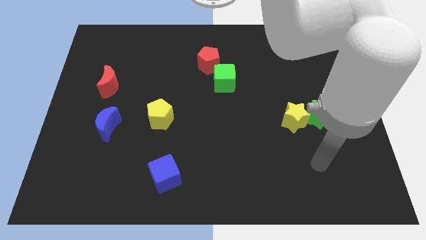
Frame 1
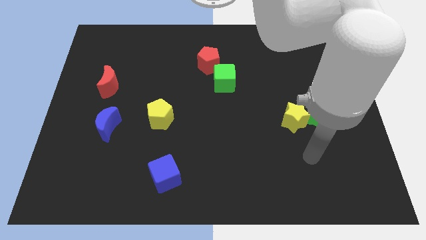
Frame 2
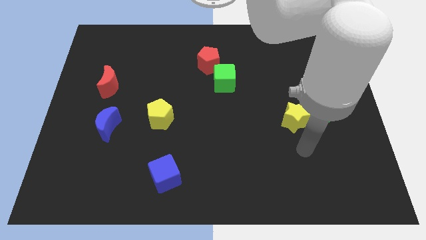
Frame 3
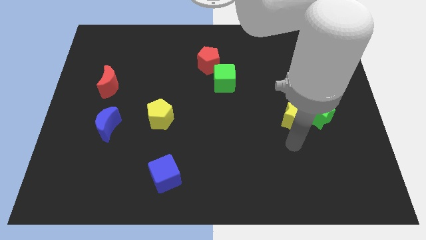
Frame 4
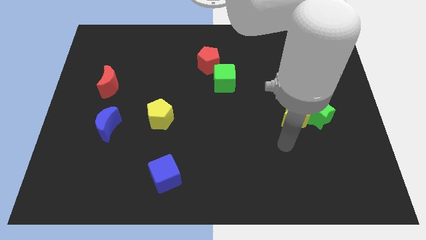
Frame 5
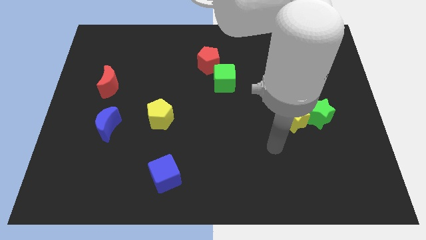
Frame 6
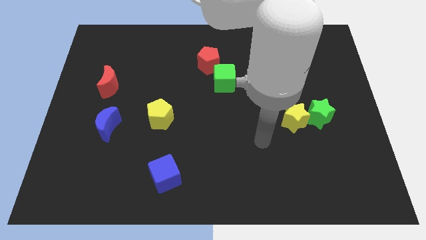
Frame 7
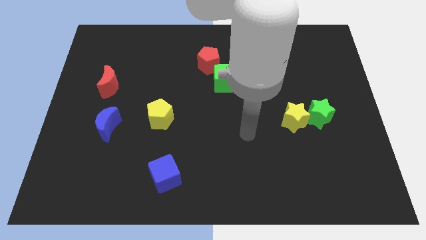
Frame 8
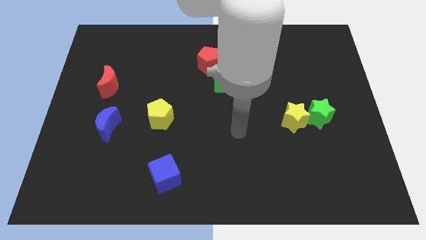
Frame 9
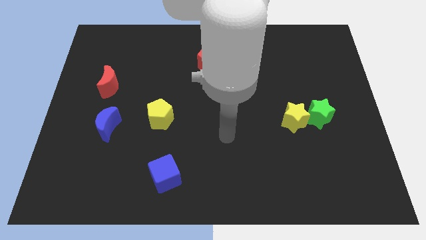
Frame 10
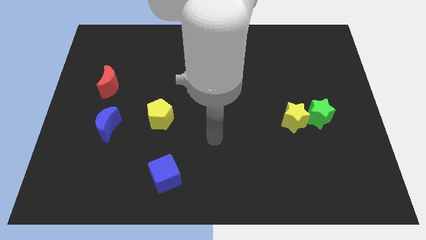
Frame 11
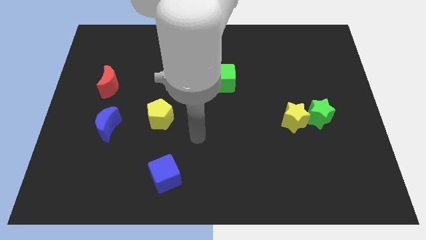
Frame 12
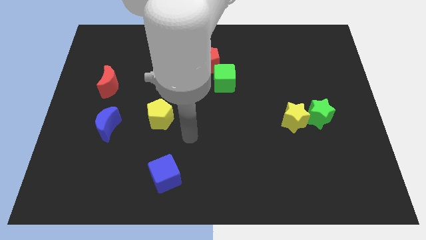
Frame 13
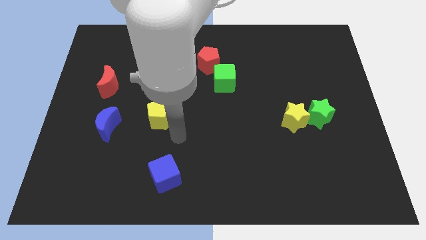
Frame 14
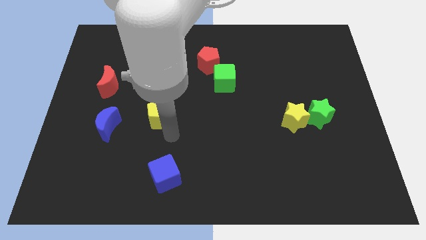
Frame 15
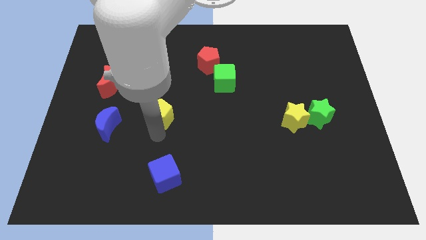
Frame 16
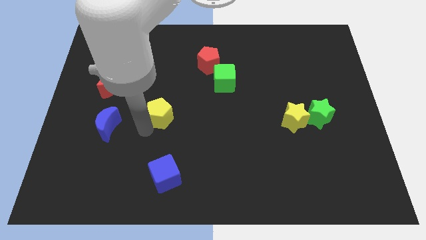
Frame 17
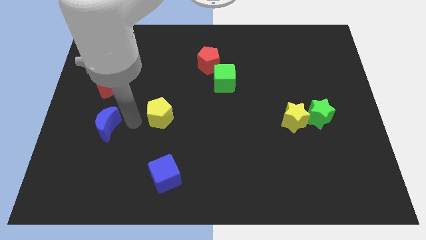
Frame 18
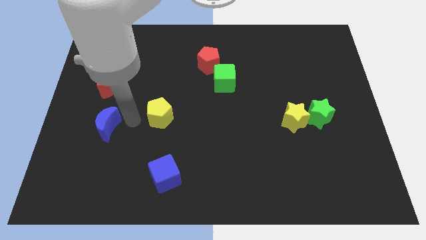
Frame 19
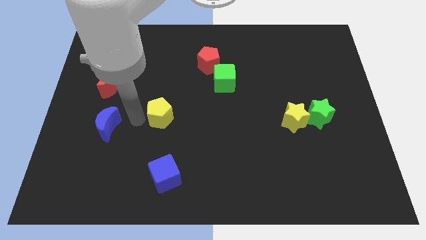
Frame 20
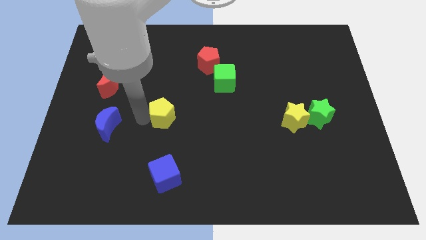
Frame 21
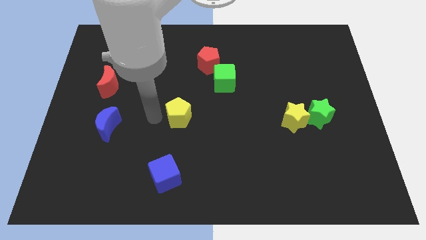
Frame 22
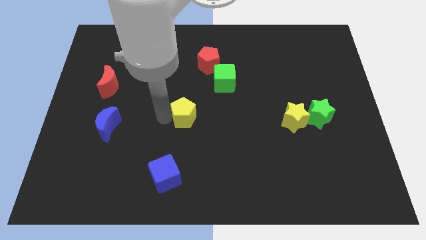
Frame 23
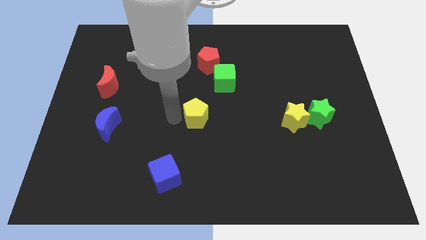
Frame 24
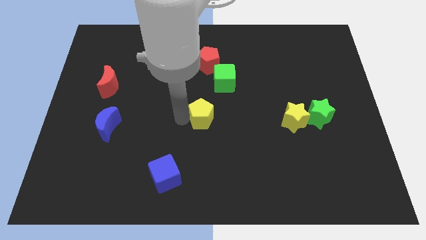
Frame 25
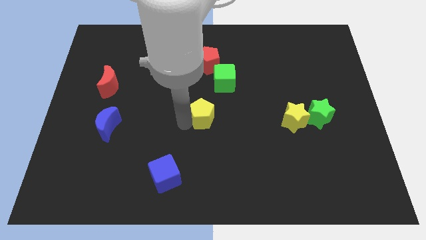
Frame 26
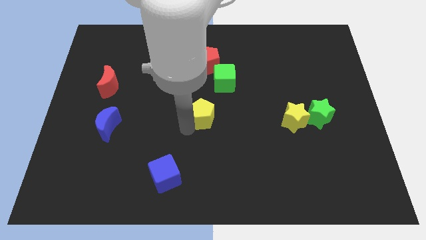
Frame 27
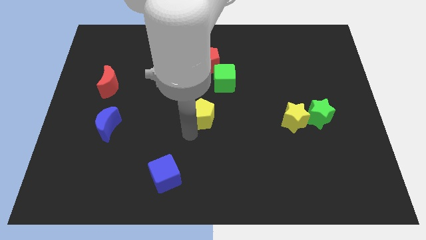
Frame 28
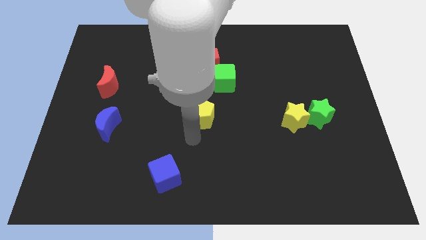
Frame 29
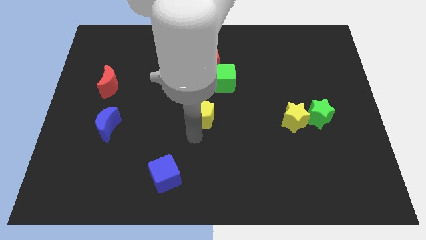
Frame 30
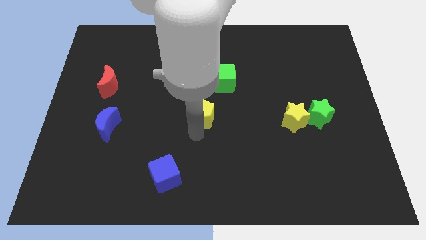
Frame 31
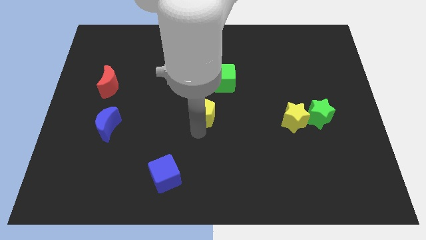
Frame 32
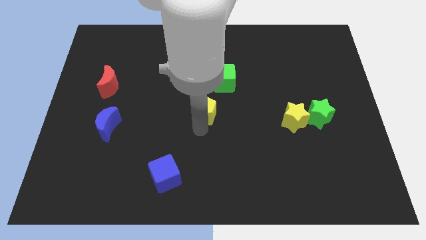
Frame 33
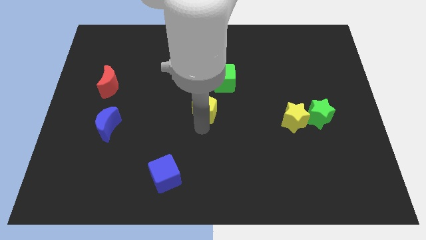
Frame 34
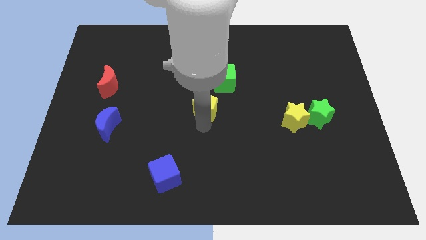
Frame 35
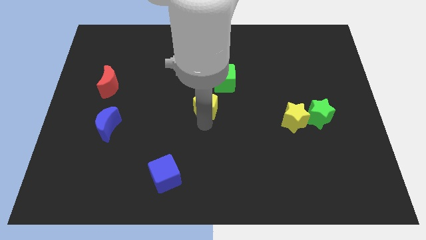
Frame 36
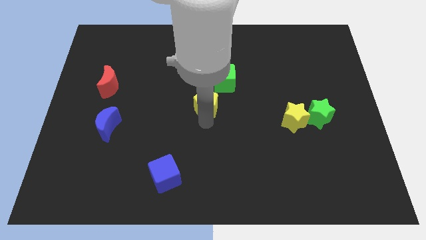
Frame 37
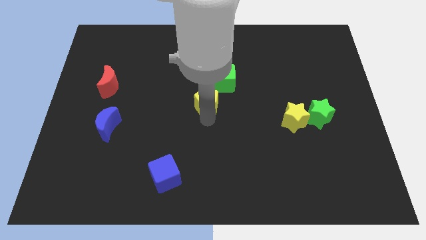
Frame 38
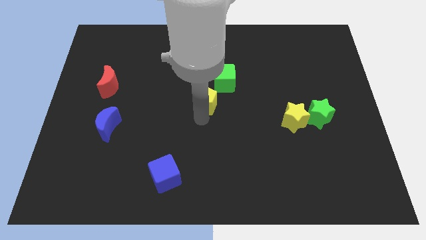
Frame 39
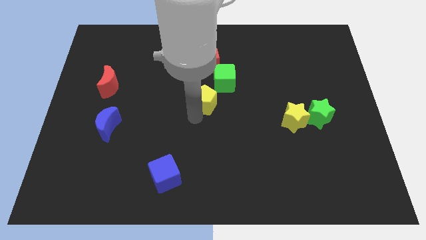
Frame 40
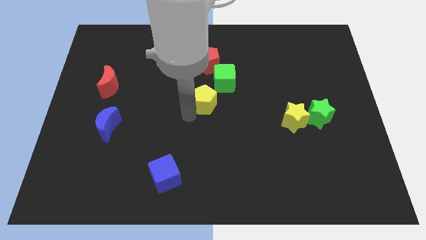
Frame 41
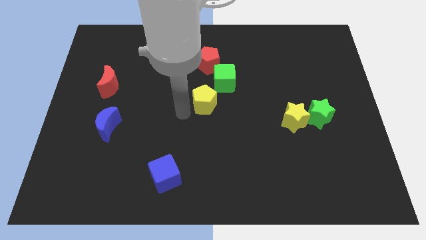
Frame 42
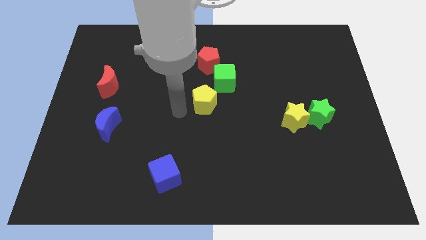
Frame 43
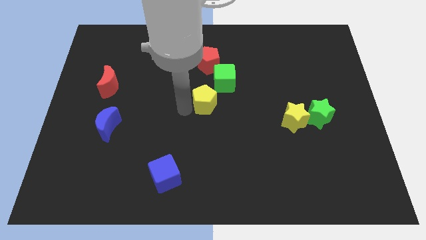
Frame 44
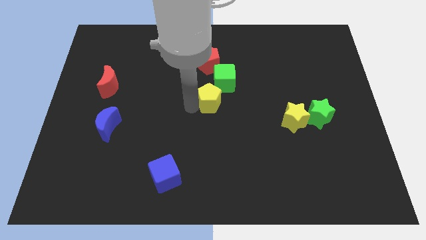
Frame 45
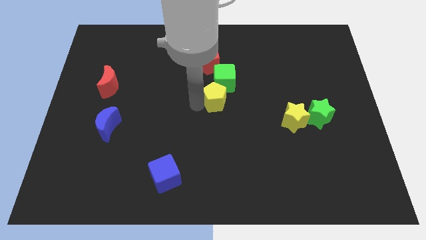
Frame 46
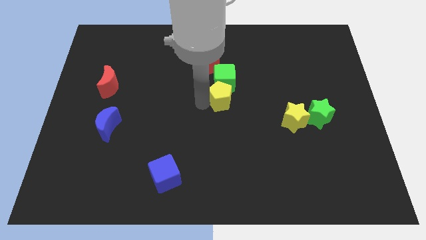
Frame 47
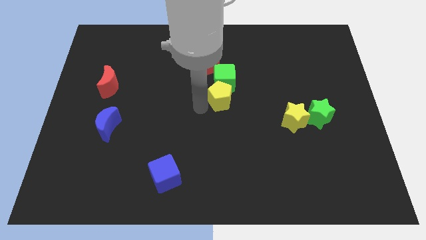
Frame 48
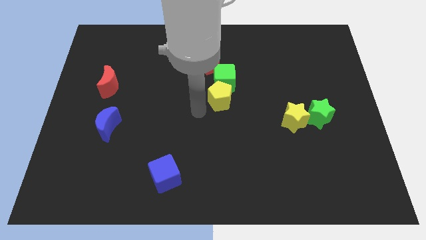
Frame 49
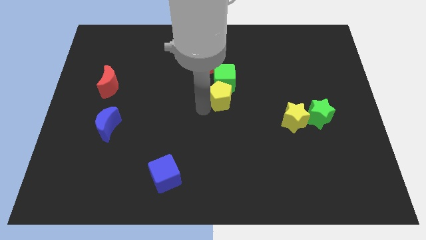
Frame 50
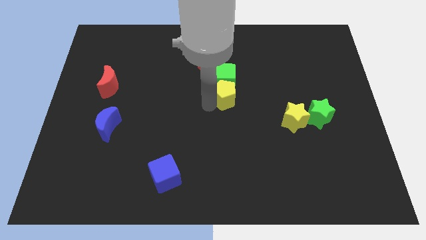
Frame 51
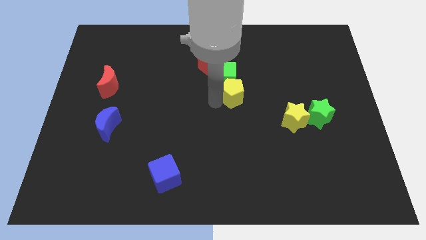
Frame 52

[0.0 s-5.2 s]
push the yellow pentagon diagonally down and to the right of the red pentagon

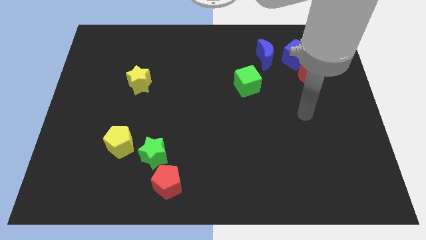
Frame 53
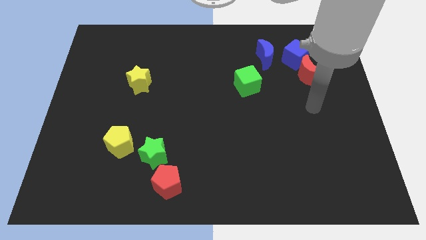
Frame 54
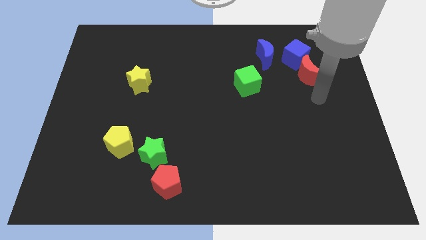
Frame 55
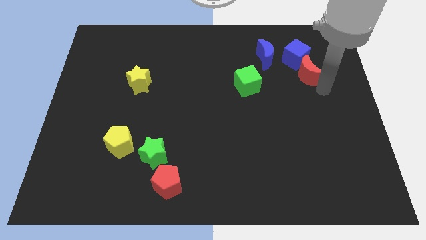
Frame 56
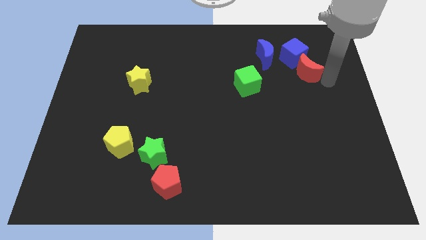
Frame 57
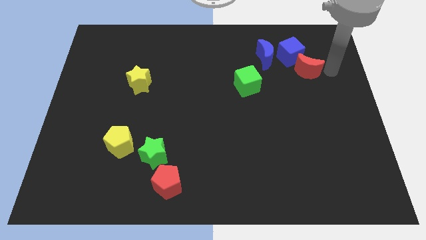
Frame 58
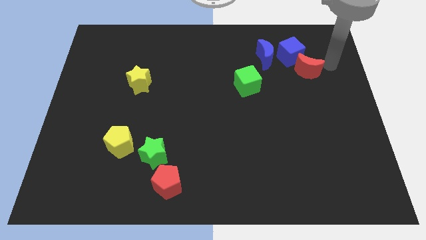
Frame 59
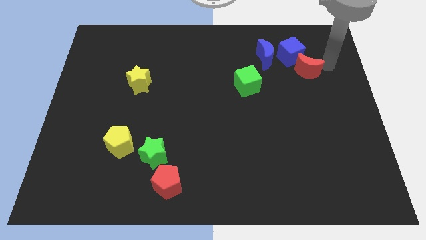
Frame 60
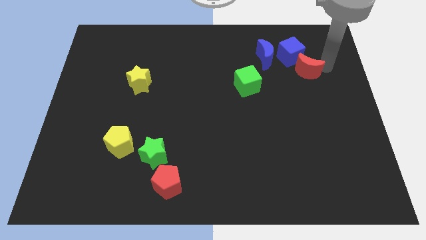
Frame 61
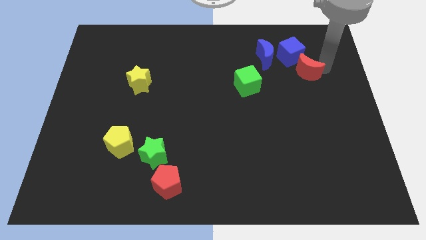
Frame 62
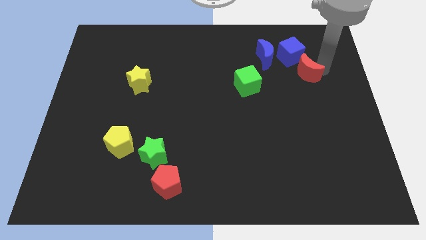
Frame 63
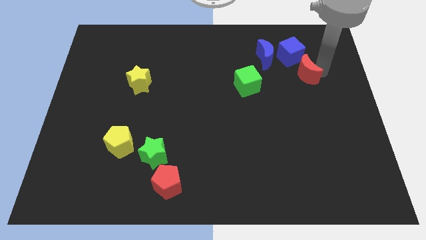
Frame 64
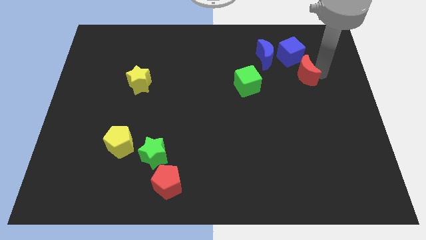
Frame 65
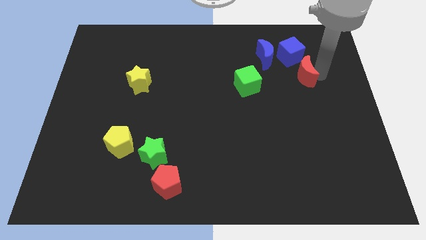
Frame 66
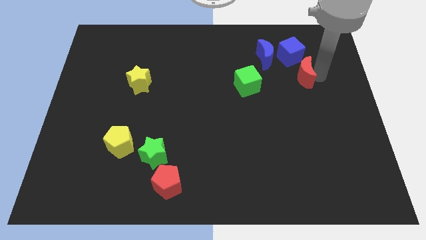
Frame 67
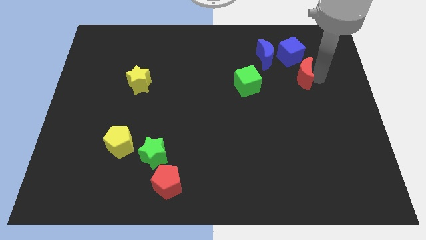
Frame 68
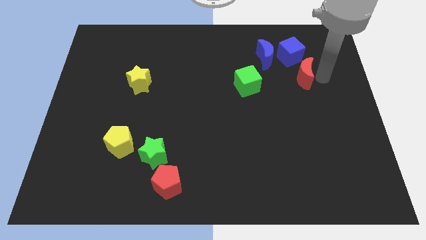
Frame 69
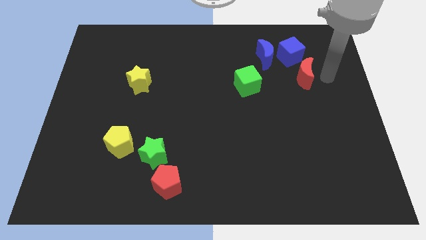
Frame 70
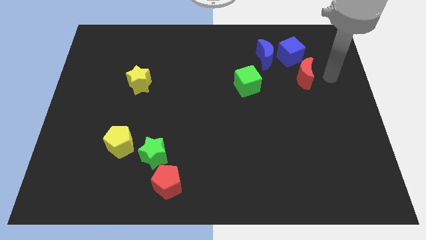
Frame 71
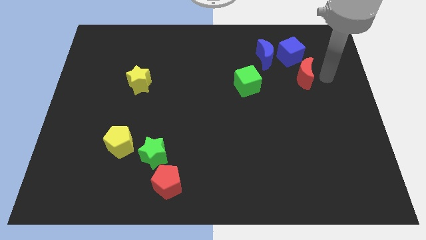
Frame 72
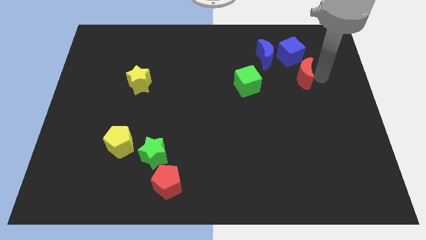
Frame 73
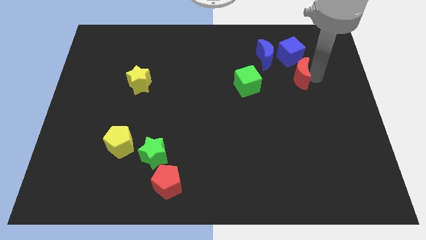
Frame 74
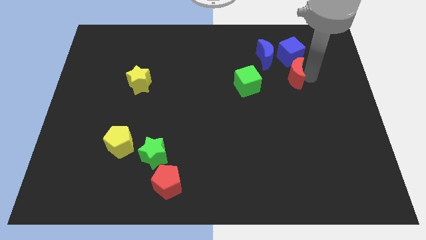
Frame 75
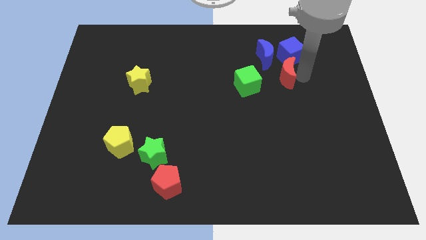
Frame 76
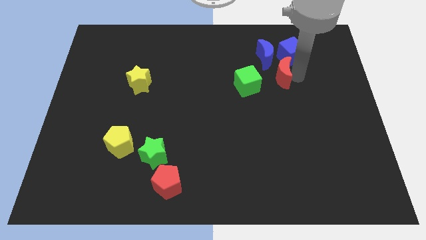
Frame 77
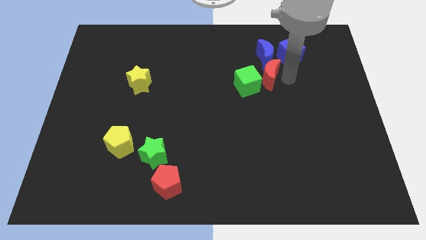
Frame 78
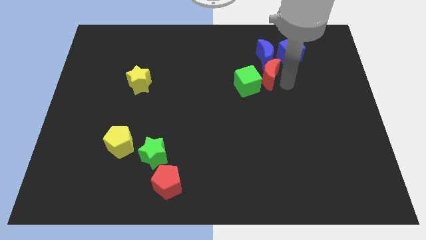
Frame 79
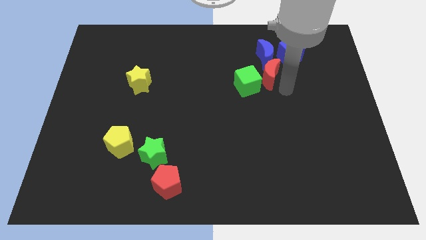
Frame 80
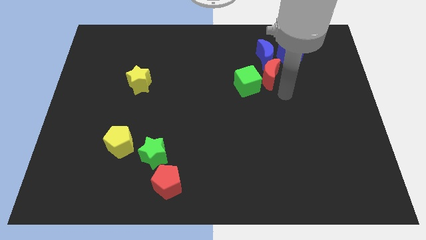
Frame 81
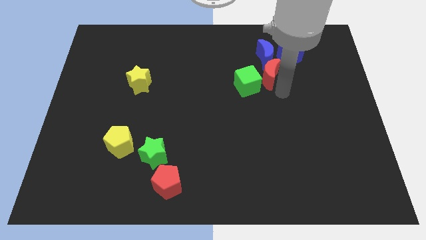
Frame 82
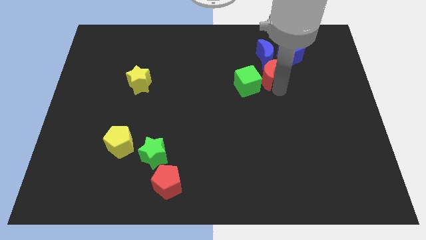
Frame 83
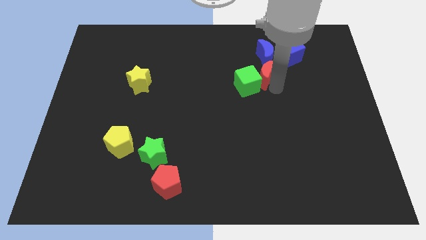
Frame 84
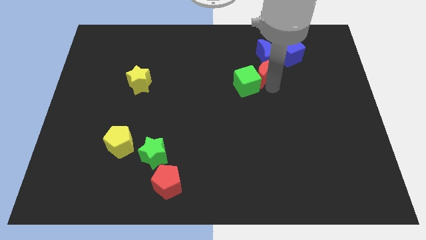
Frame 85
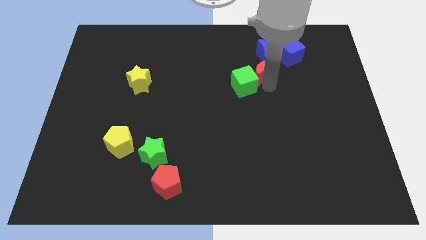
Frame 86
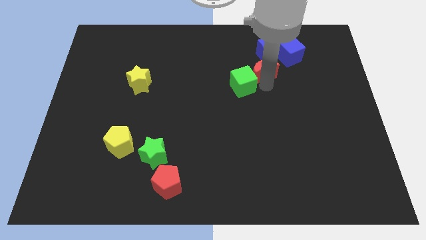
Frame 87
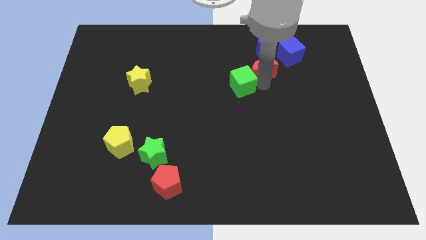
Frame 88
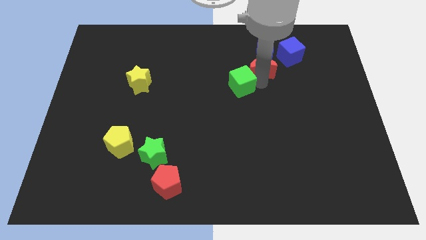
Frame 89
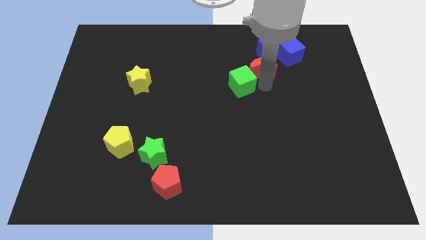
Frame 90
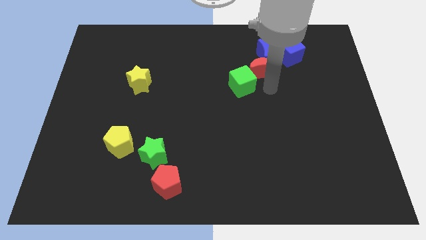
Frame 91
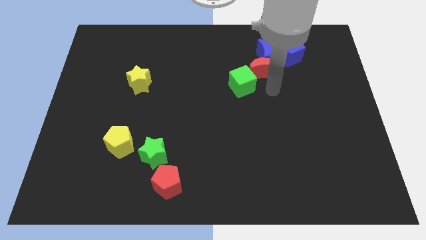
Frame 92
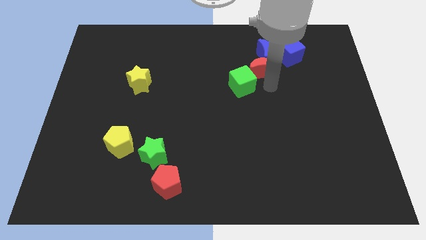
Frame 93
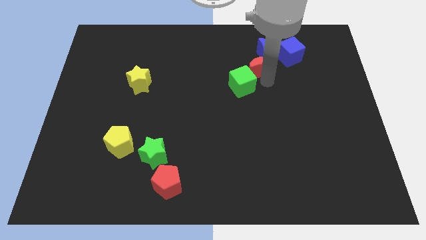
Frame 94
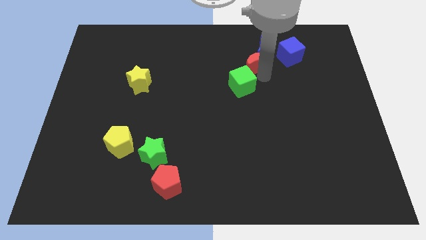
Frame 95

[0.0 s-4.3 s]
slide the red moon to the left of the blue cube
